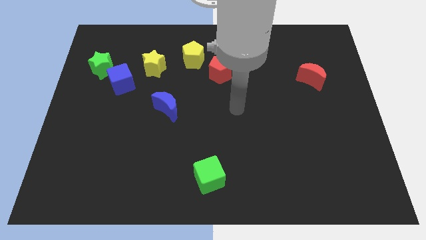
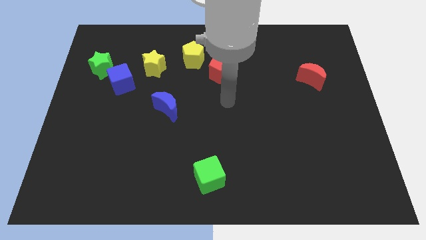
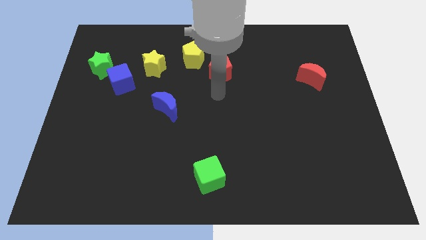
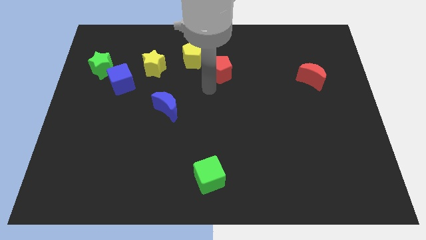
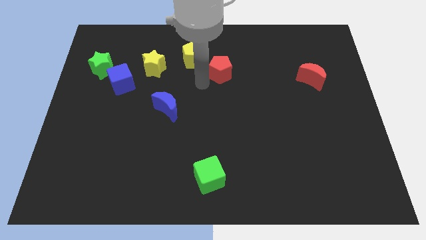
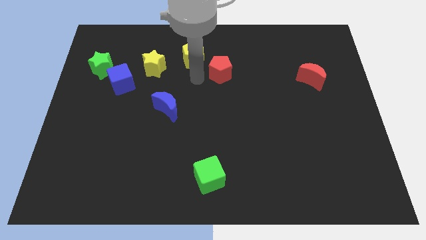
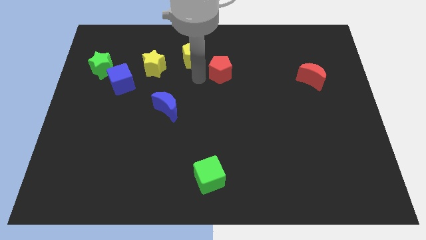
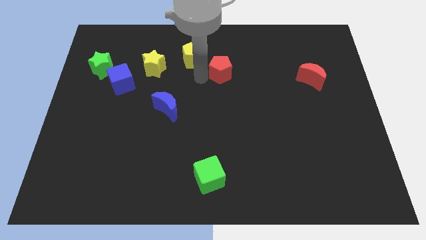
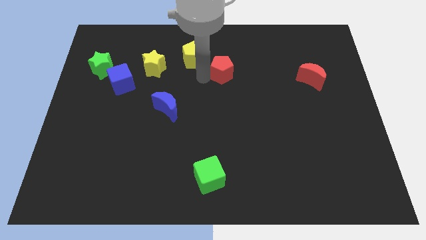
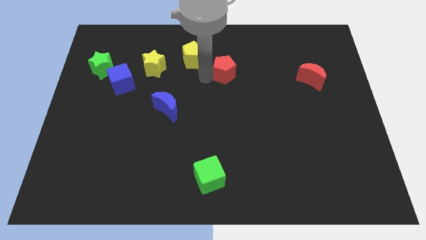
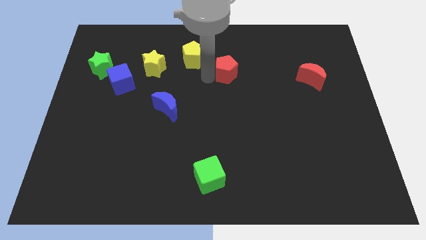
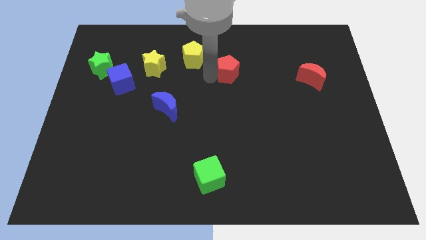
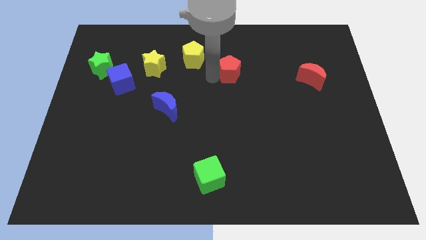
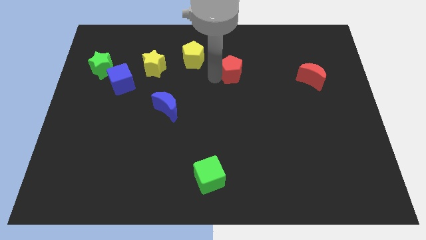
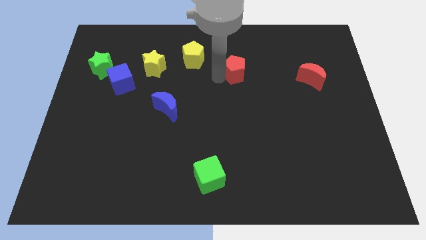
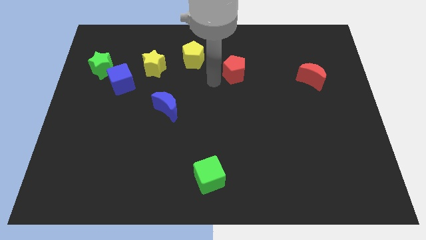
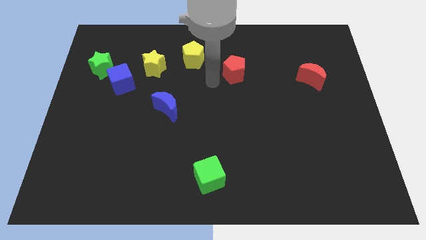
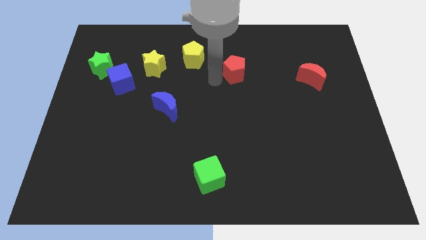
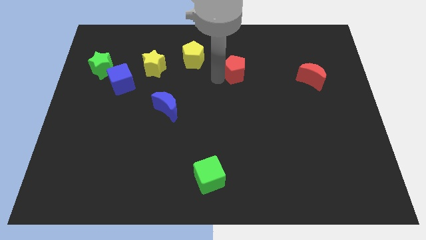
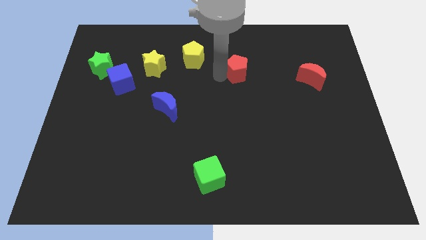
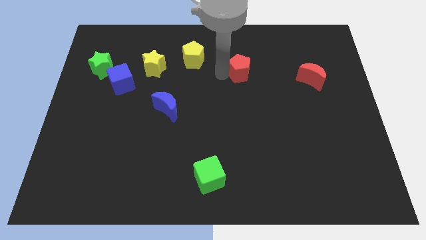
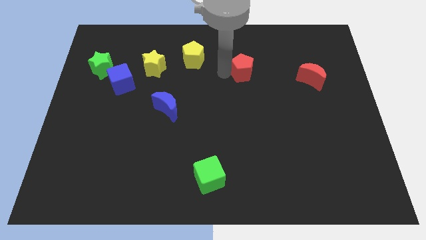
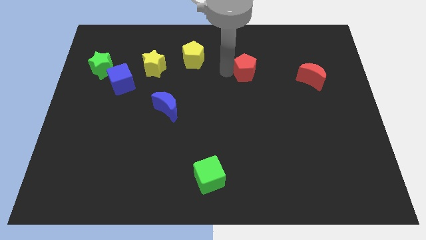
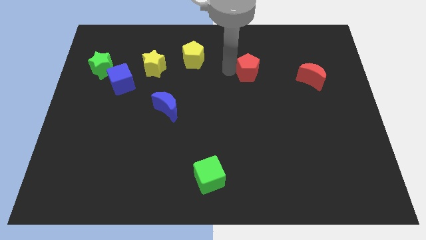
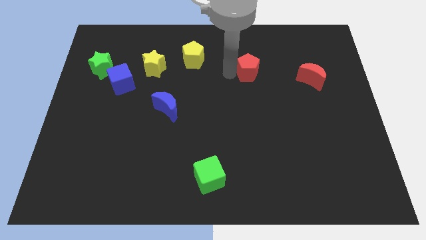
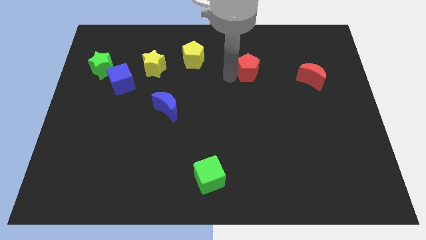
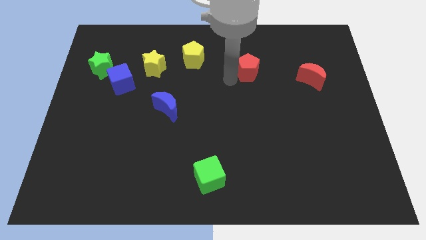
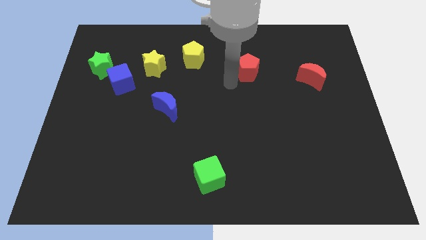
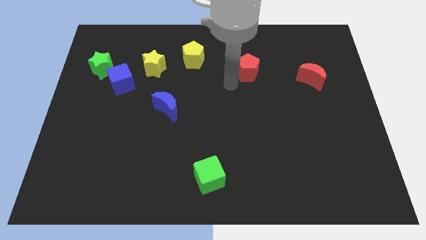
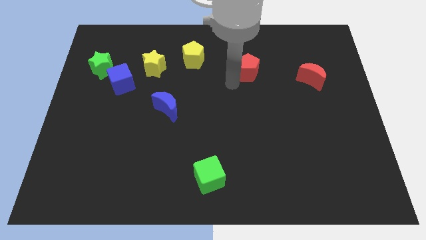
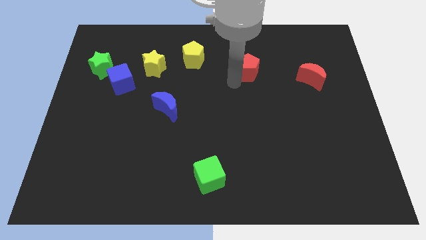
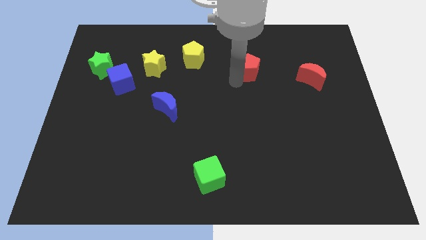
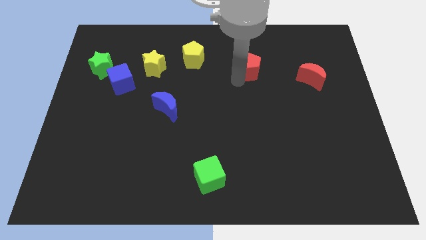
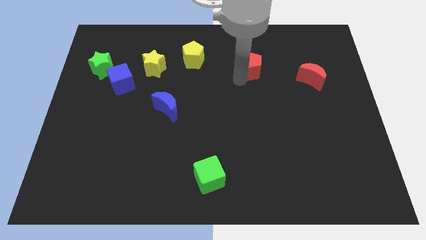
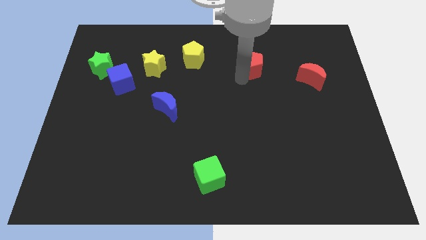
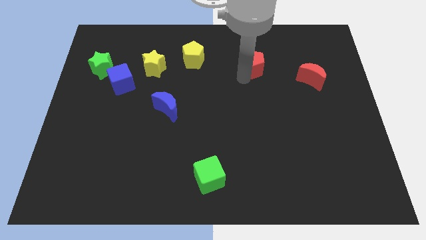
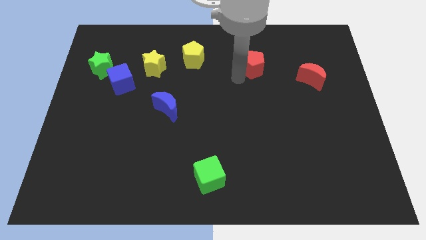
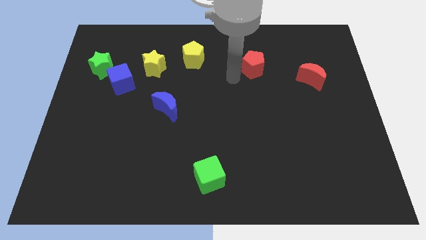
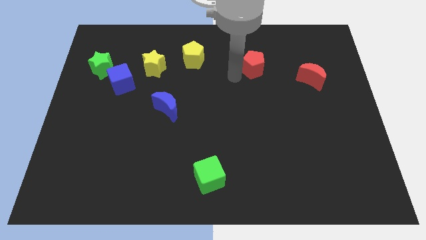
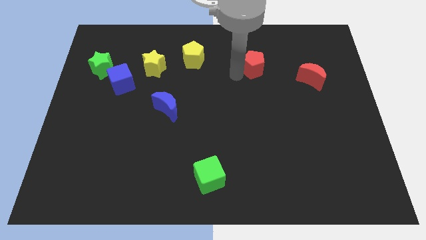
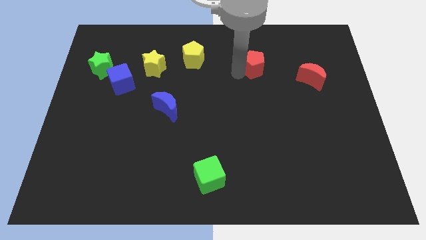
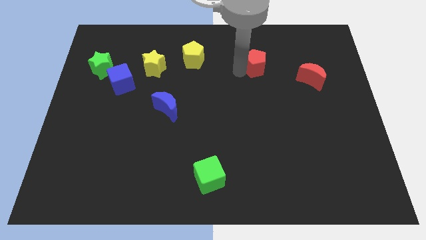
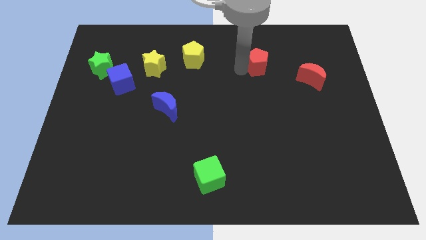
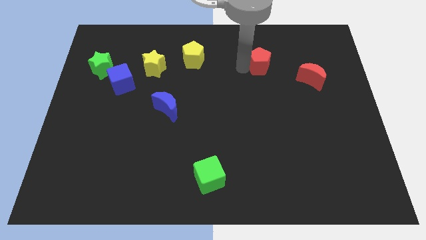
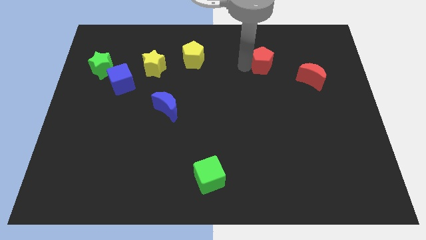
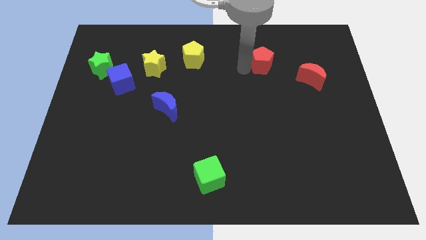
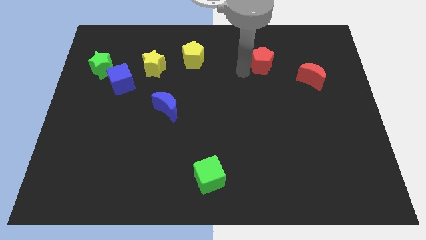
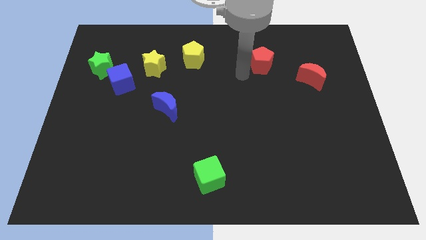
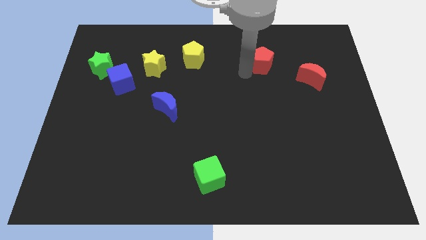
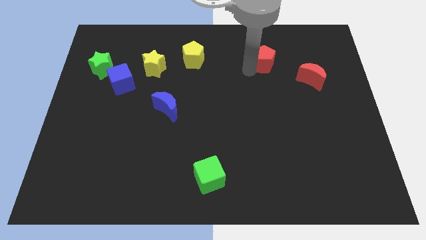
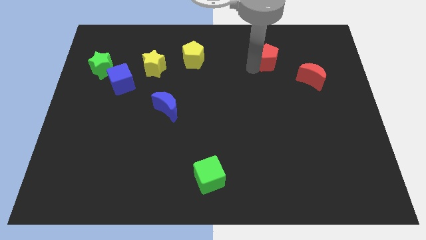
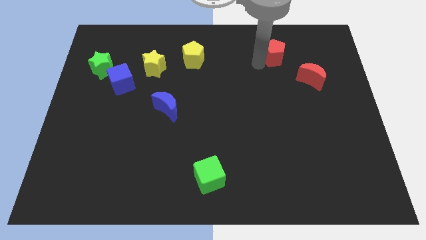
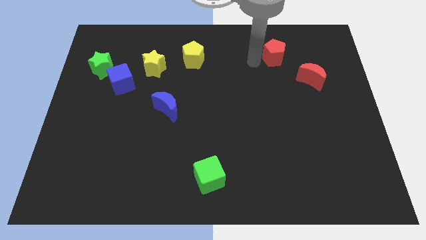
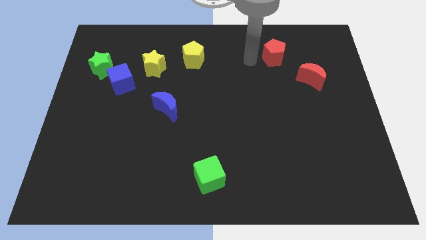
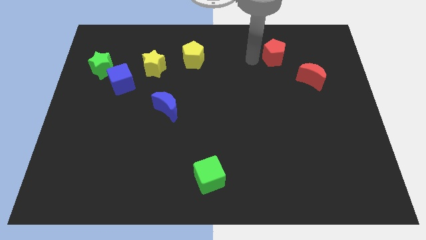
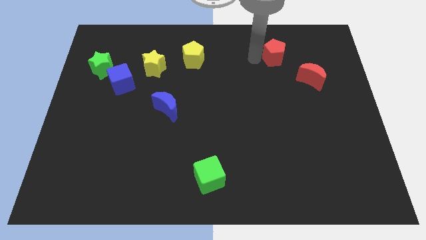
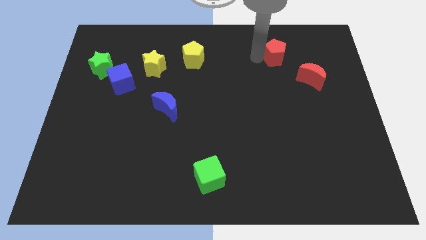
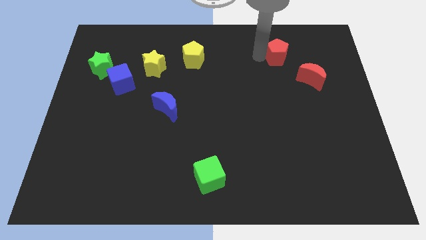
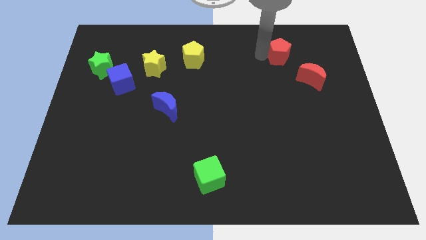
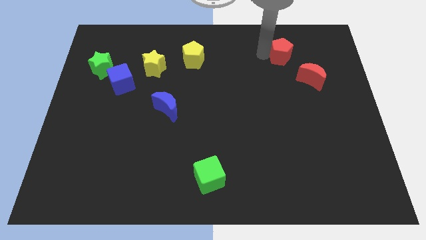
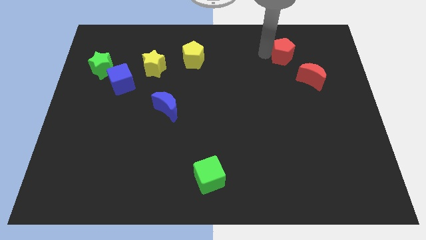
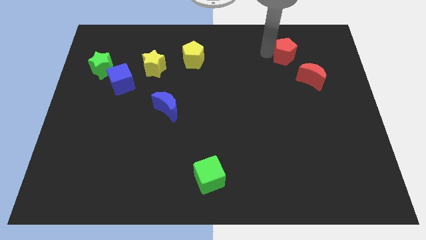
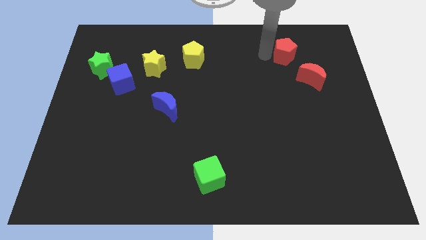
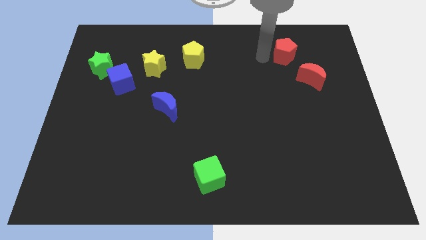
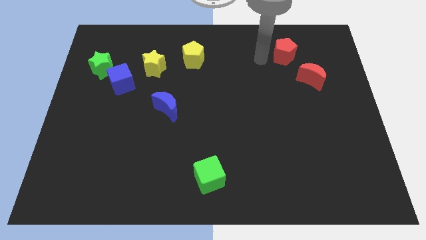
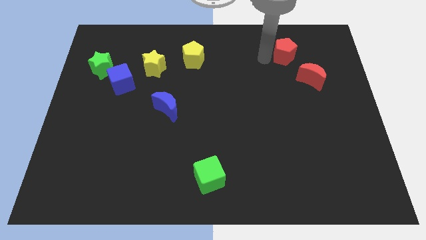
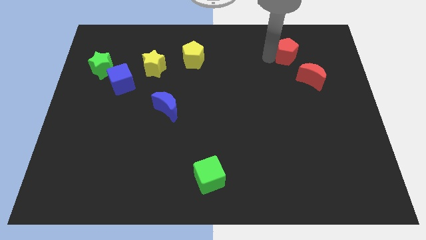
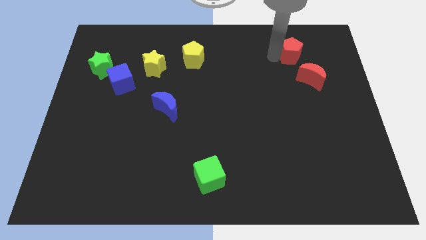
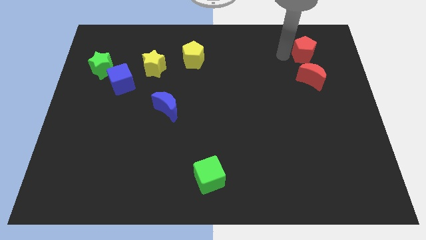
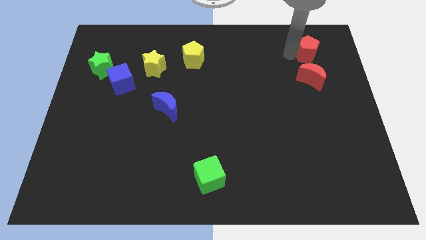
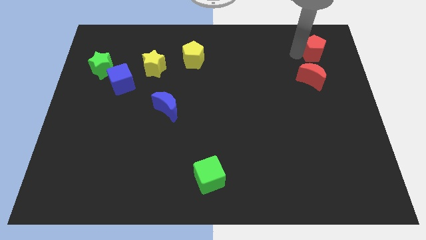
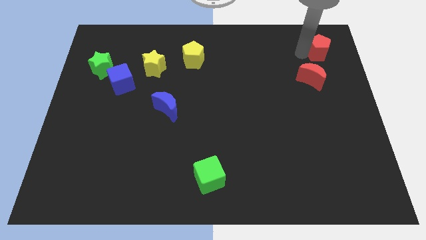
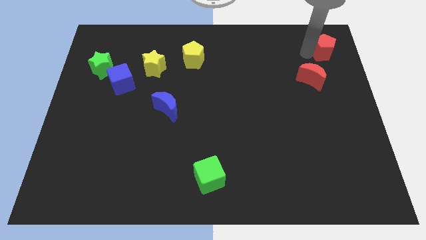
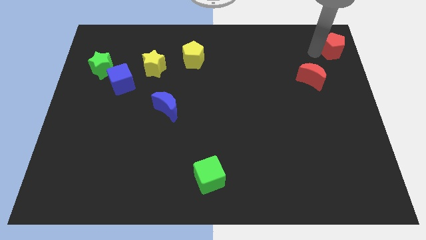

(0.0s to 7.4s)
move the red pentagon to the upper right corner
